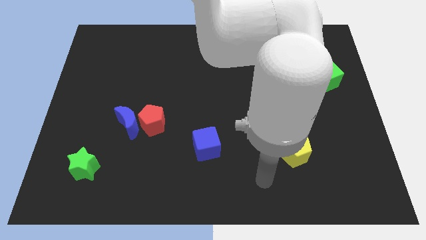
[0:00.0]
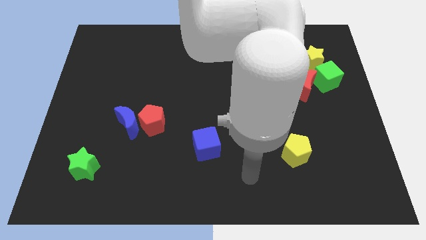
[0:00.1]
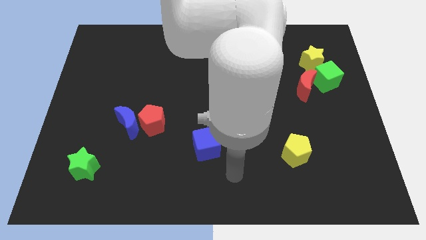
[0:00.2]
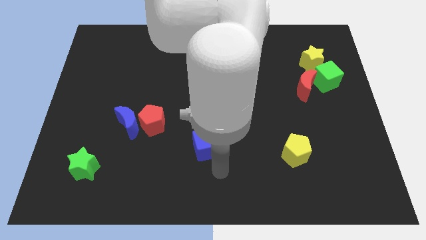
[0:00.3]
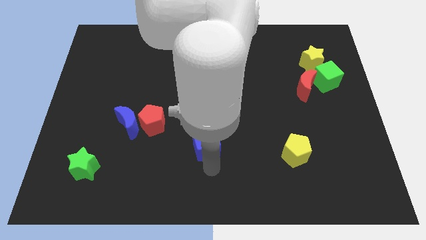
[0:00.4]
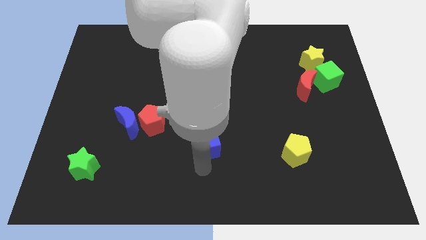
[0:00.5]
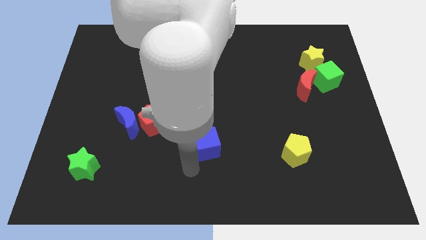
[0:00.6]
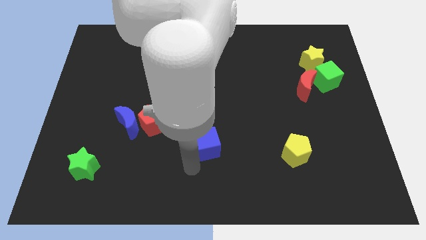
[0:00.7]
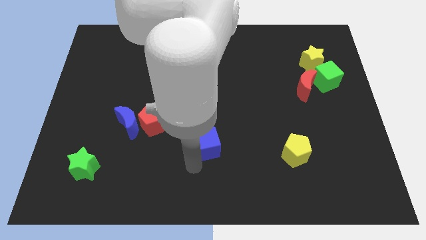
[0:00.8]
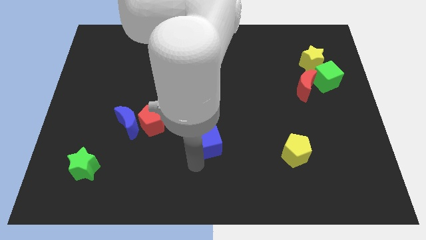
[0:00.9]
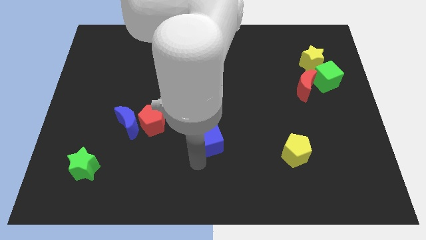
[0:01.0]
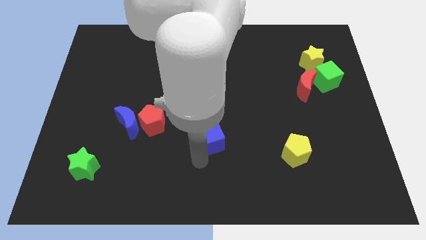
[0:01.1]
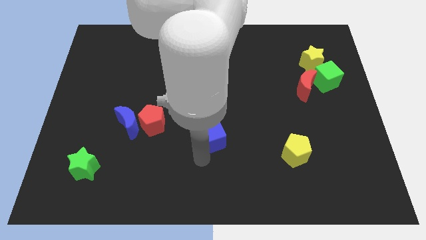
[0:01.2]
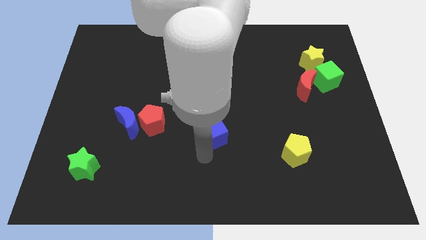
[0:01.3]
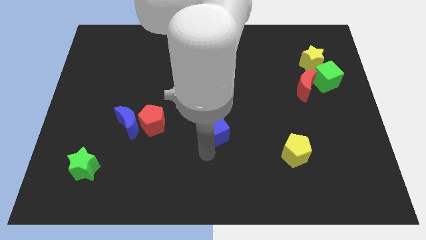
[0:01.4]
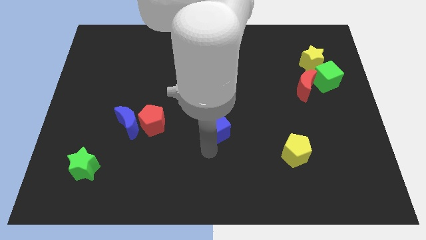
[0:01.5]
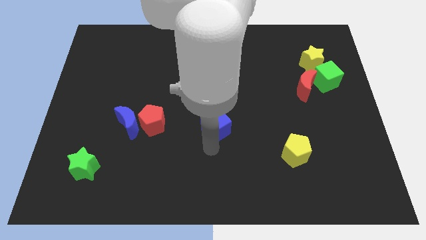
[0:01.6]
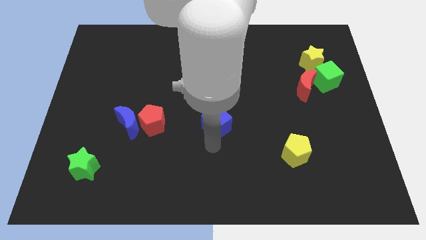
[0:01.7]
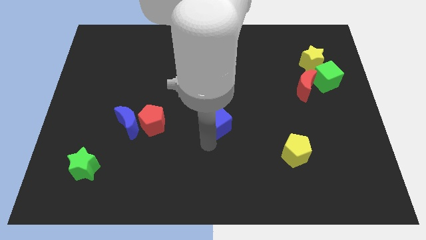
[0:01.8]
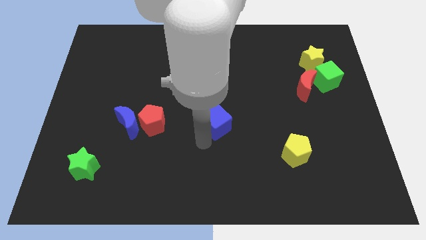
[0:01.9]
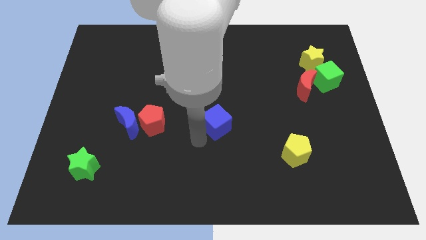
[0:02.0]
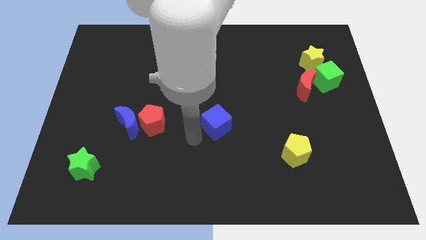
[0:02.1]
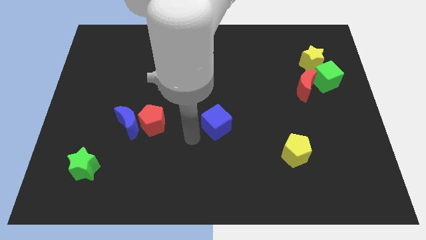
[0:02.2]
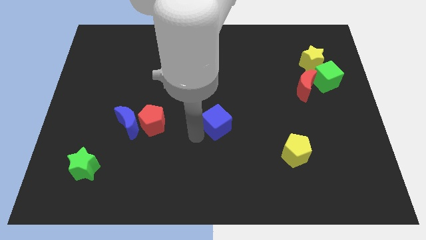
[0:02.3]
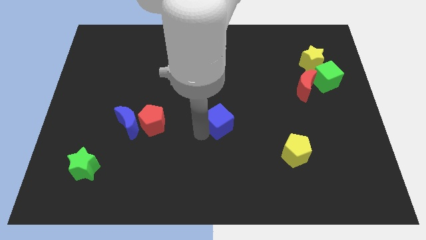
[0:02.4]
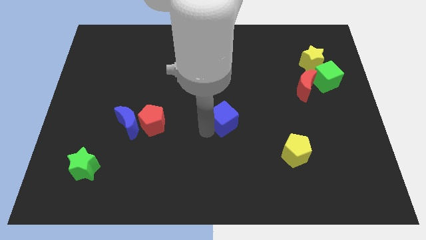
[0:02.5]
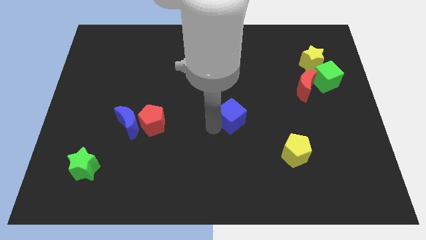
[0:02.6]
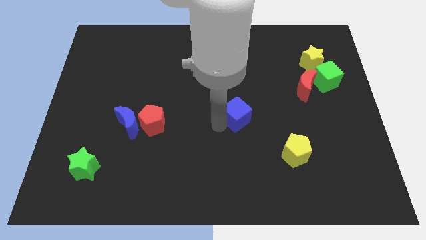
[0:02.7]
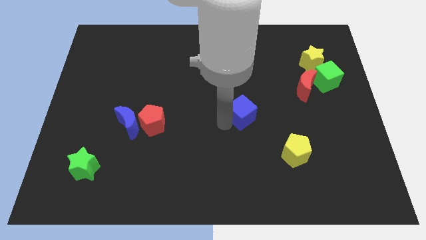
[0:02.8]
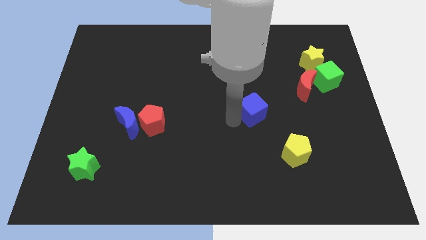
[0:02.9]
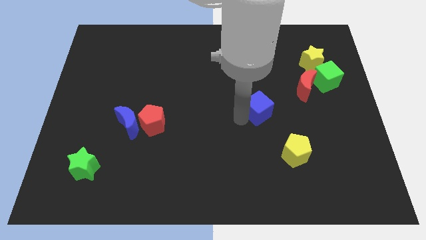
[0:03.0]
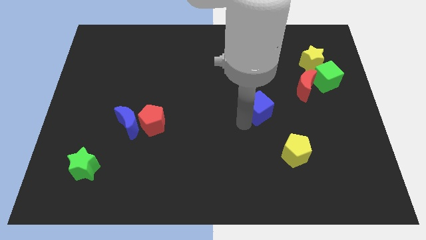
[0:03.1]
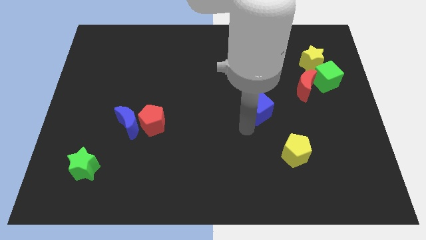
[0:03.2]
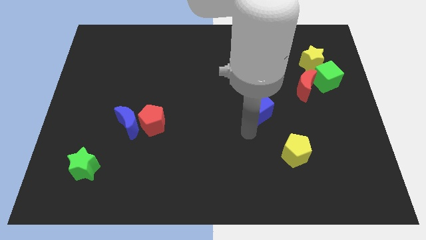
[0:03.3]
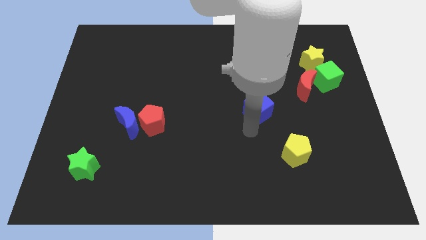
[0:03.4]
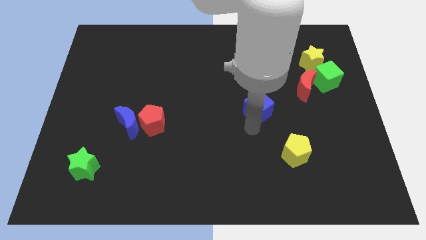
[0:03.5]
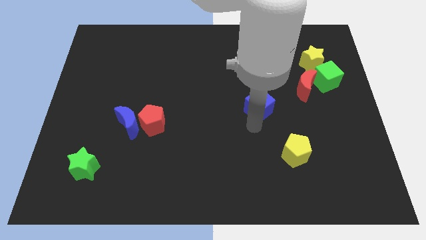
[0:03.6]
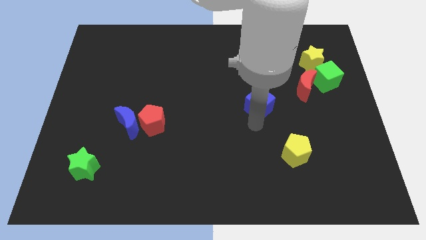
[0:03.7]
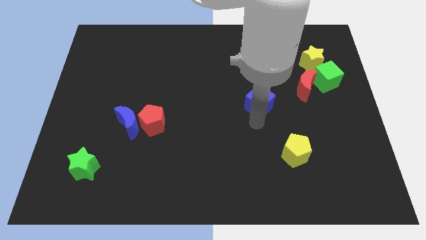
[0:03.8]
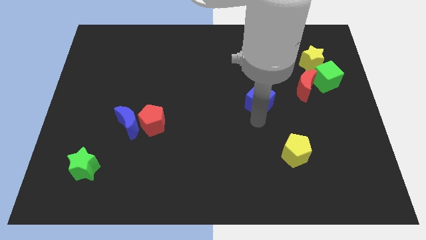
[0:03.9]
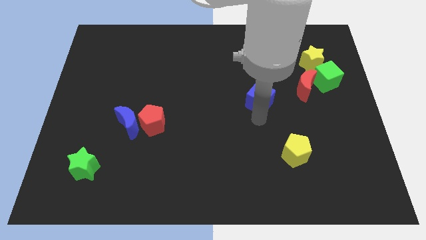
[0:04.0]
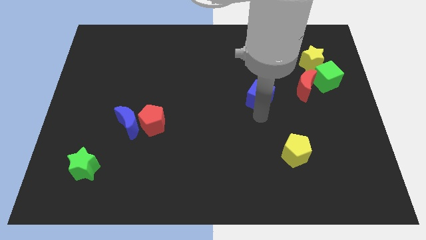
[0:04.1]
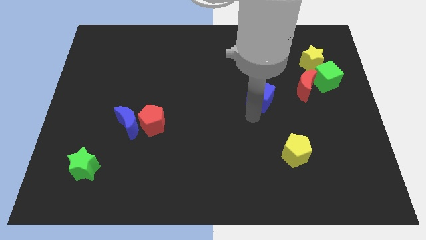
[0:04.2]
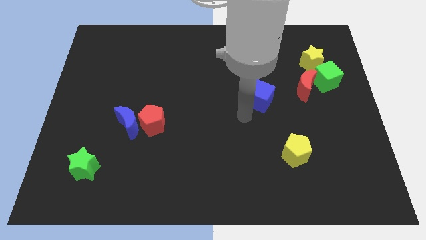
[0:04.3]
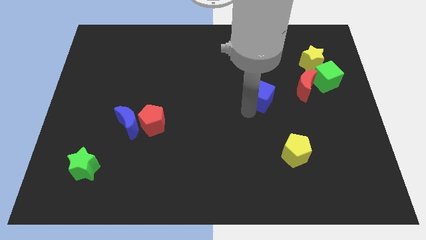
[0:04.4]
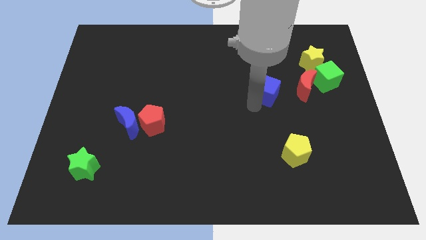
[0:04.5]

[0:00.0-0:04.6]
slide the blue cube up and right

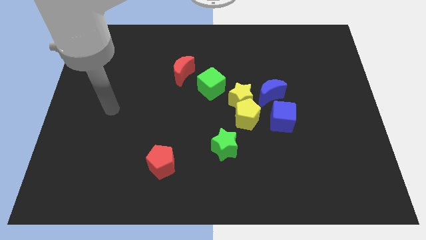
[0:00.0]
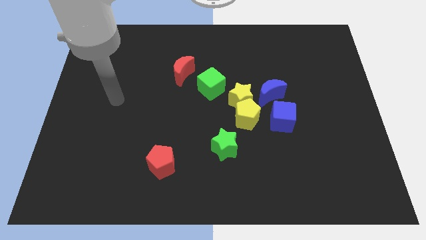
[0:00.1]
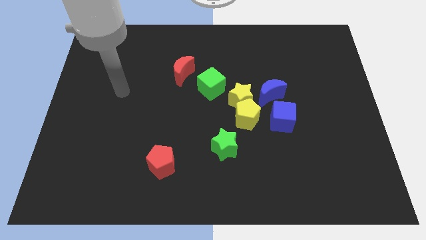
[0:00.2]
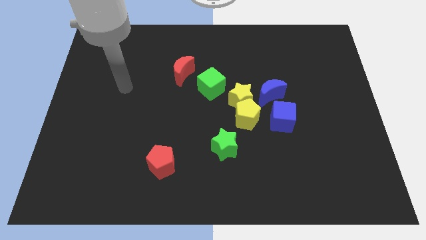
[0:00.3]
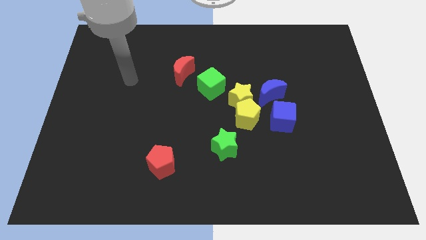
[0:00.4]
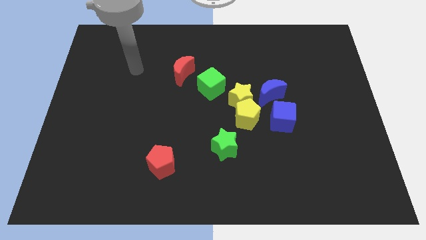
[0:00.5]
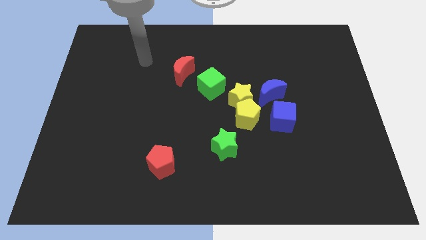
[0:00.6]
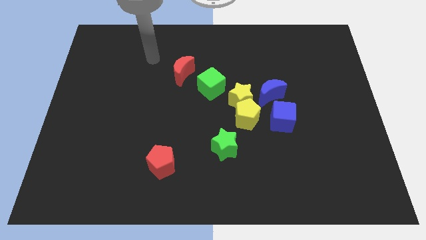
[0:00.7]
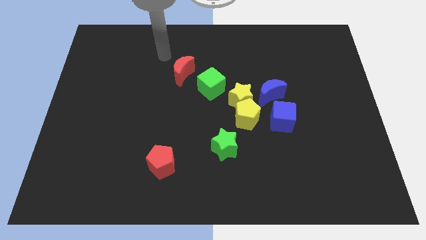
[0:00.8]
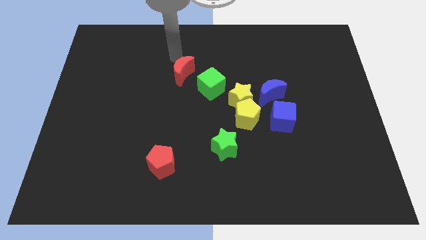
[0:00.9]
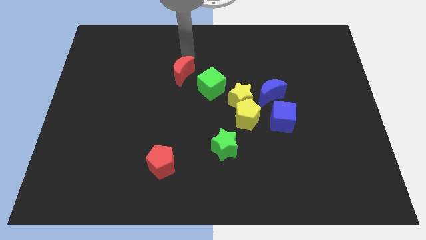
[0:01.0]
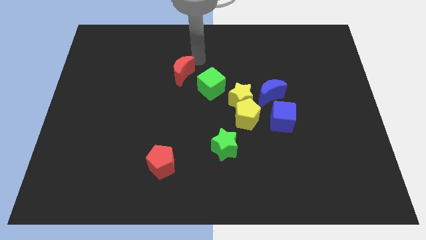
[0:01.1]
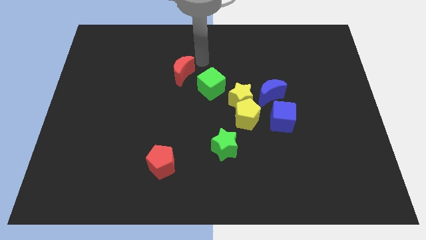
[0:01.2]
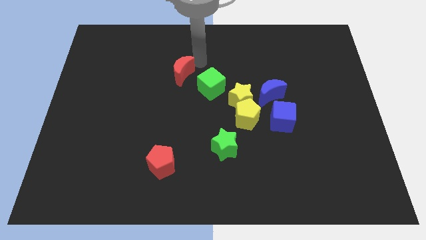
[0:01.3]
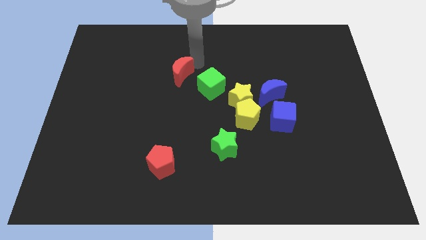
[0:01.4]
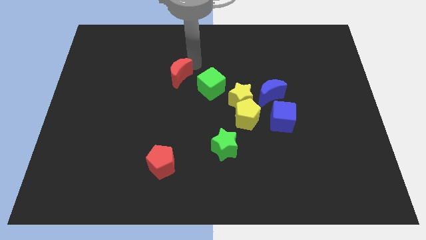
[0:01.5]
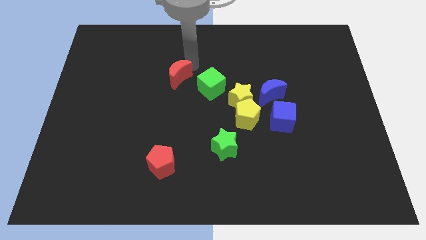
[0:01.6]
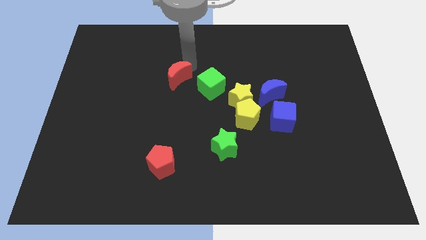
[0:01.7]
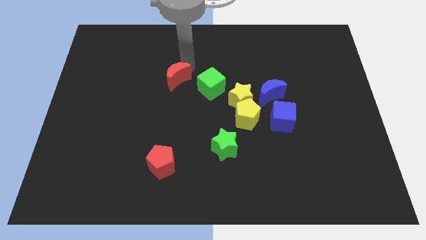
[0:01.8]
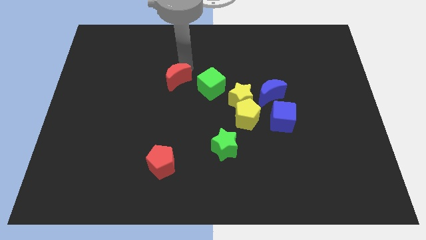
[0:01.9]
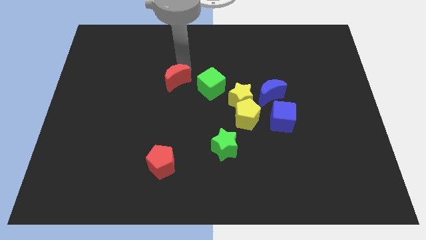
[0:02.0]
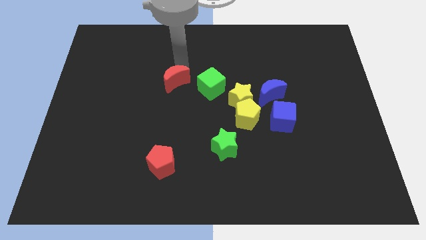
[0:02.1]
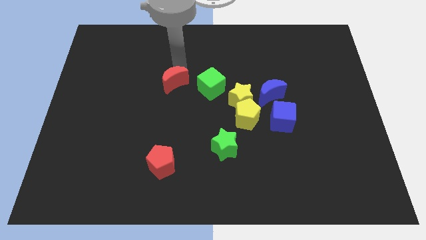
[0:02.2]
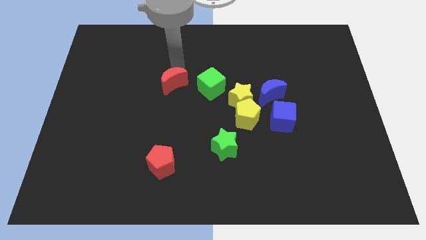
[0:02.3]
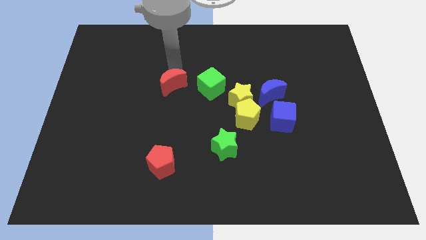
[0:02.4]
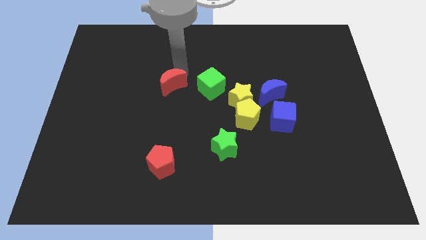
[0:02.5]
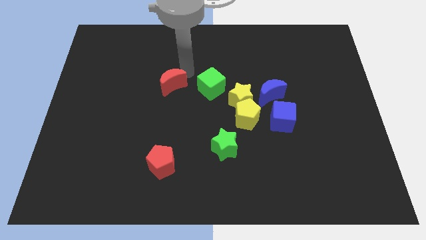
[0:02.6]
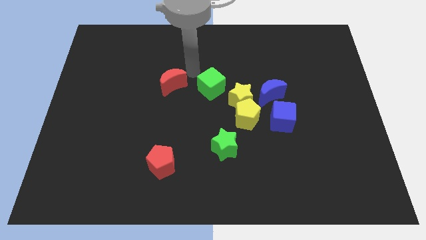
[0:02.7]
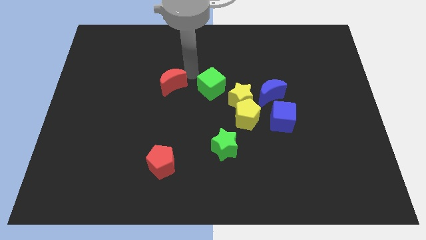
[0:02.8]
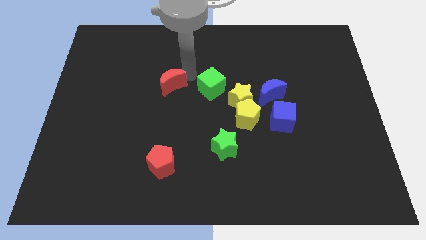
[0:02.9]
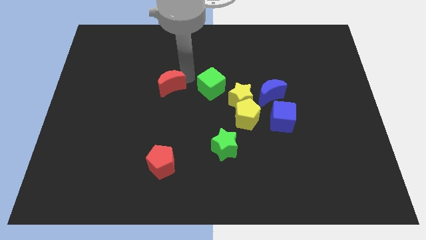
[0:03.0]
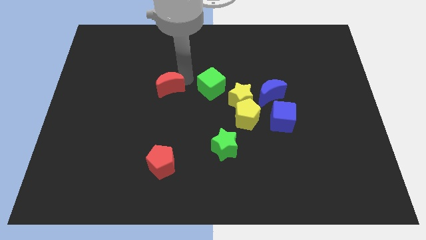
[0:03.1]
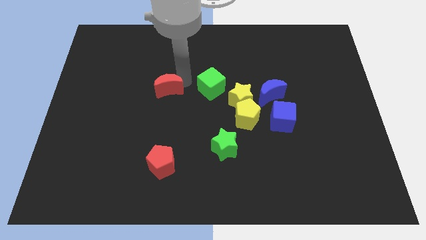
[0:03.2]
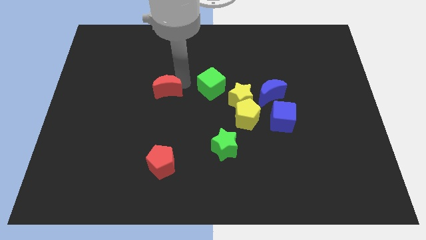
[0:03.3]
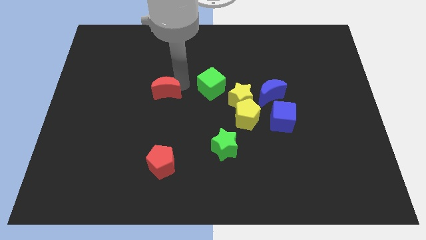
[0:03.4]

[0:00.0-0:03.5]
push the red moon diagonally down and left a little
